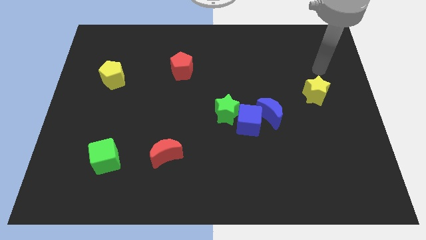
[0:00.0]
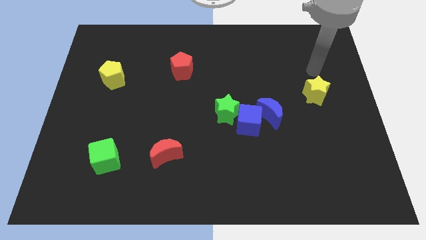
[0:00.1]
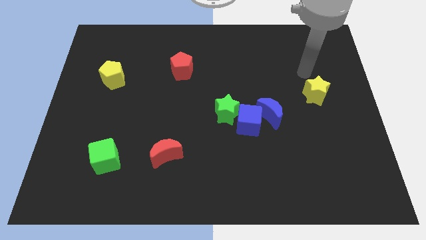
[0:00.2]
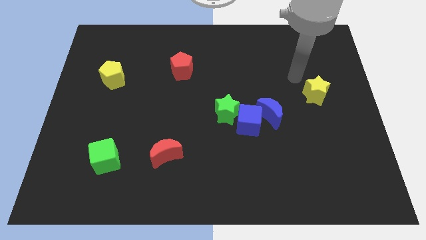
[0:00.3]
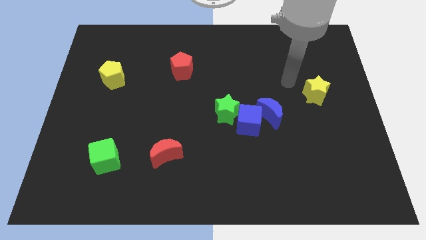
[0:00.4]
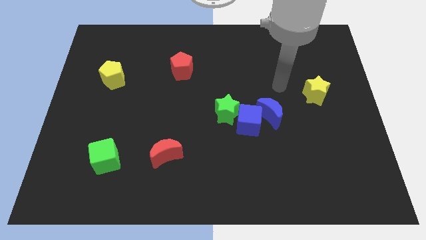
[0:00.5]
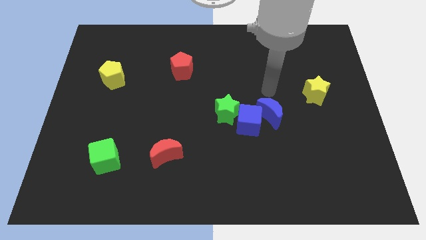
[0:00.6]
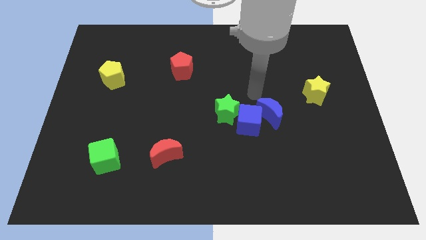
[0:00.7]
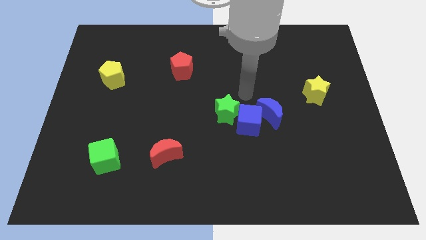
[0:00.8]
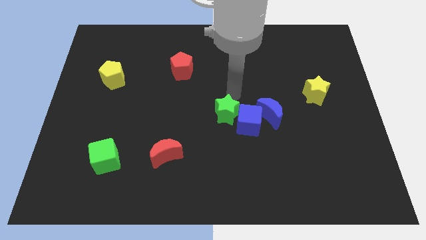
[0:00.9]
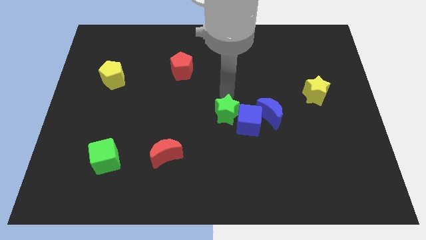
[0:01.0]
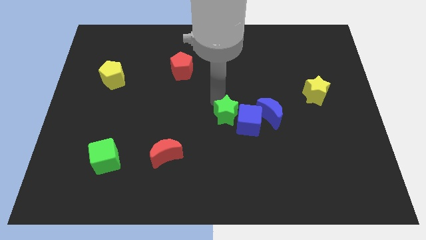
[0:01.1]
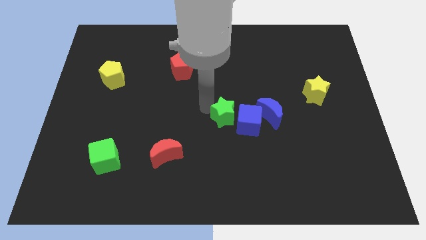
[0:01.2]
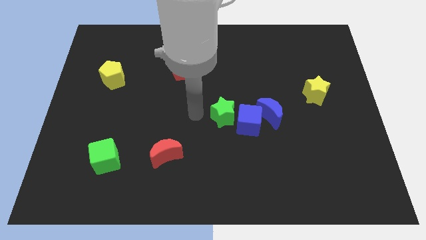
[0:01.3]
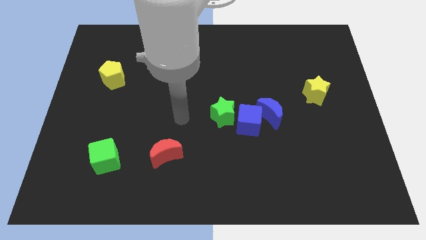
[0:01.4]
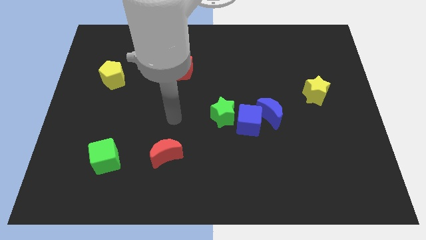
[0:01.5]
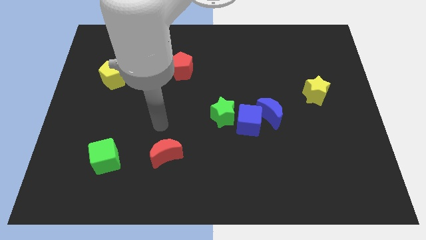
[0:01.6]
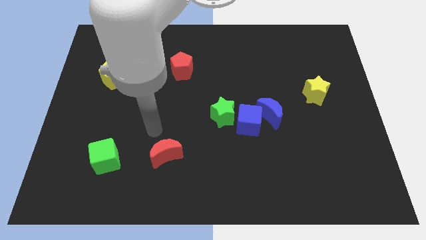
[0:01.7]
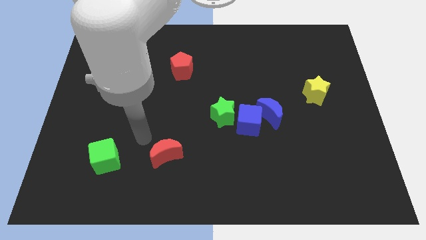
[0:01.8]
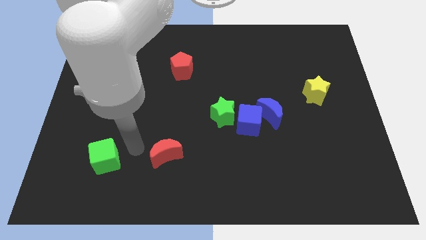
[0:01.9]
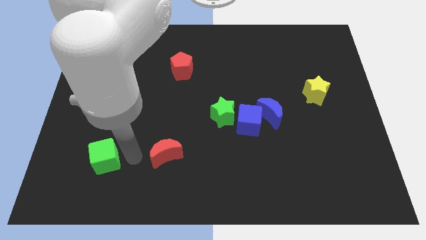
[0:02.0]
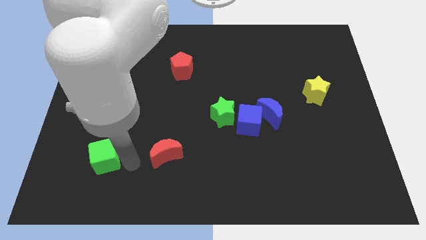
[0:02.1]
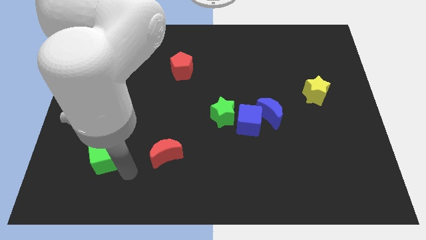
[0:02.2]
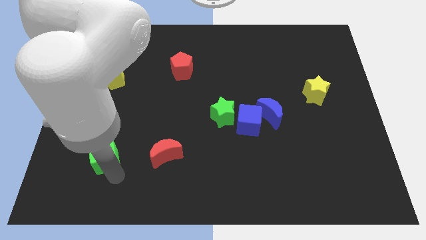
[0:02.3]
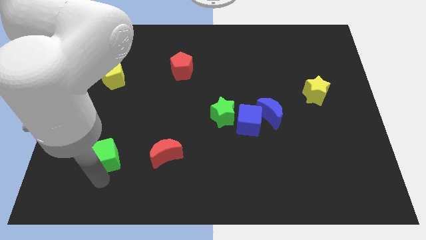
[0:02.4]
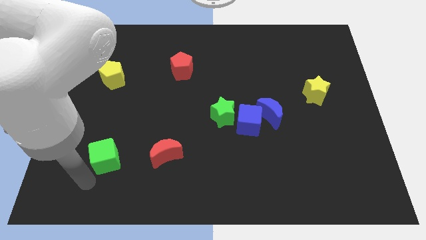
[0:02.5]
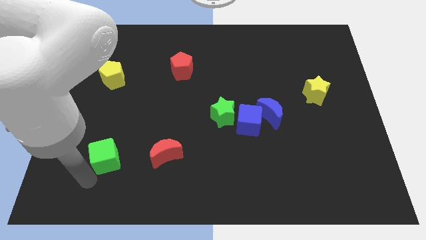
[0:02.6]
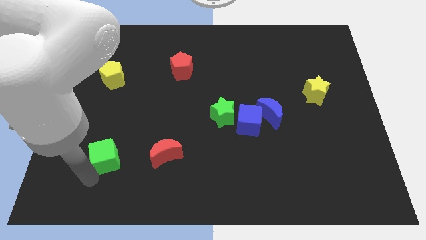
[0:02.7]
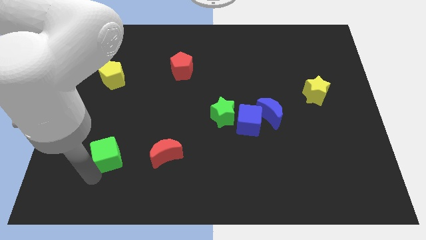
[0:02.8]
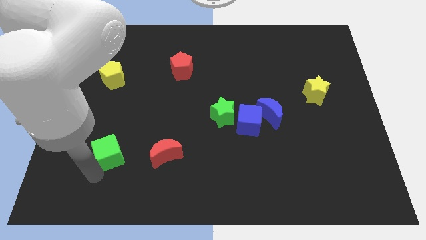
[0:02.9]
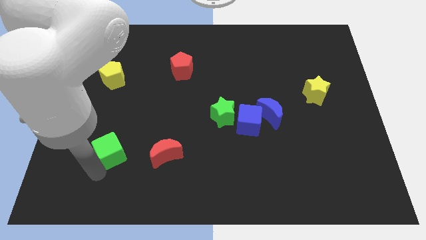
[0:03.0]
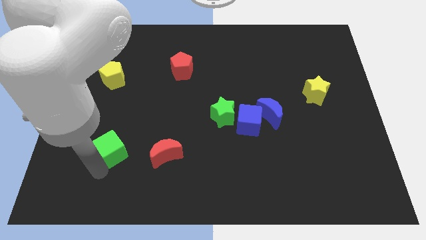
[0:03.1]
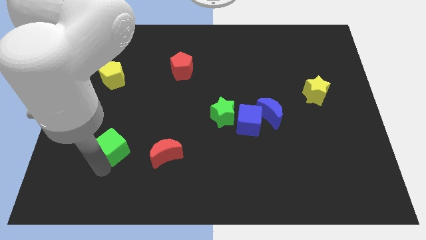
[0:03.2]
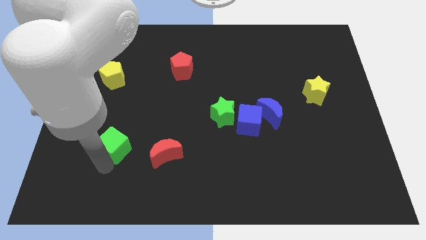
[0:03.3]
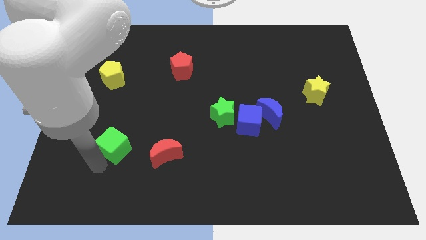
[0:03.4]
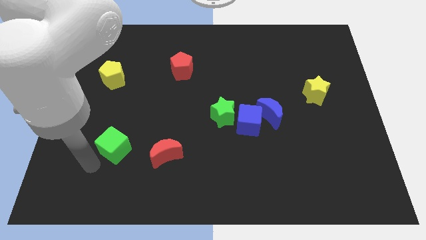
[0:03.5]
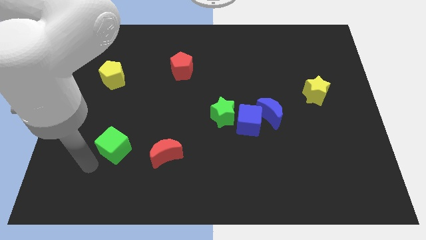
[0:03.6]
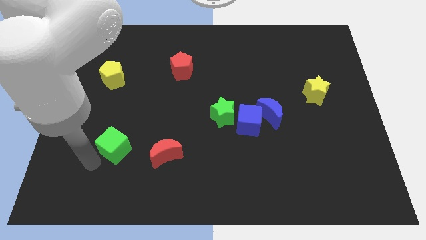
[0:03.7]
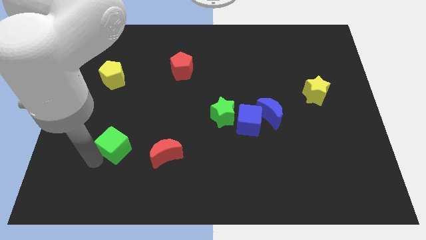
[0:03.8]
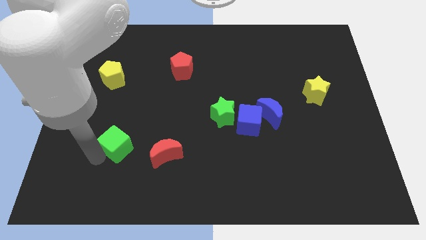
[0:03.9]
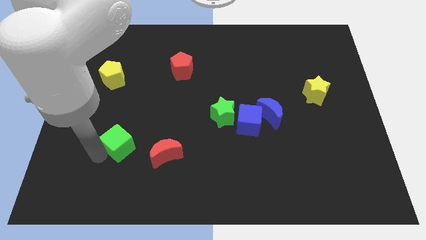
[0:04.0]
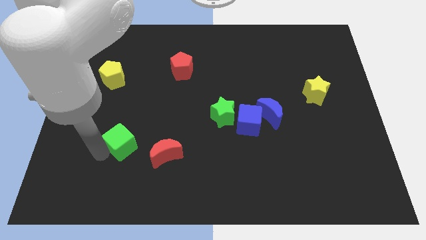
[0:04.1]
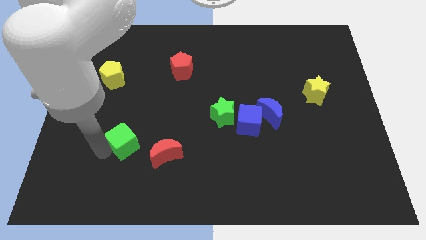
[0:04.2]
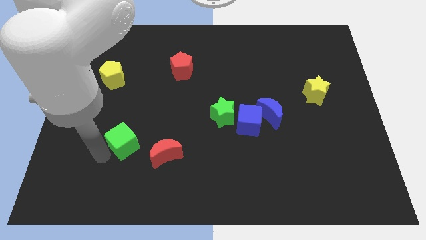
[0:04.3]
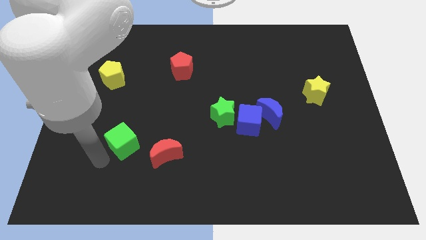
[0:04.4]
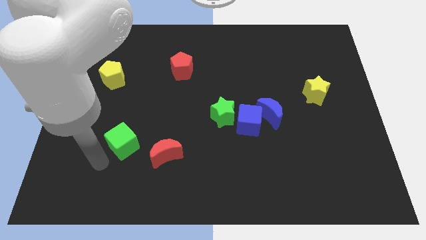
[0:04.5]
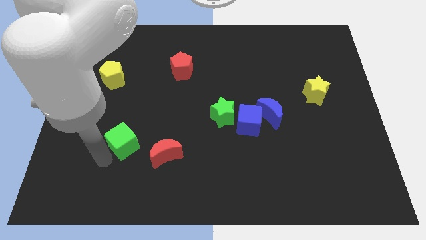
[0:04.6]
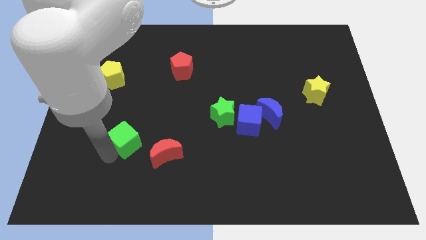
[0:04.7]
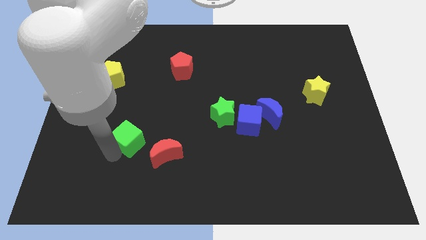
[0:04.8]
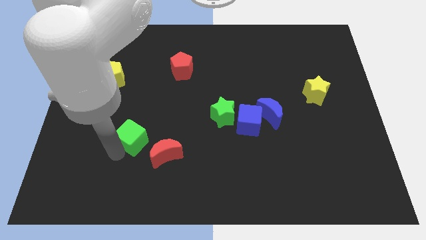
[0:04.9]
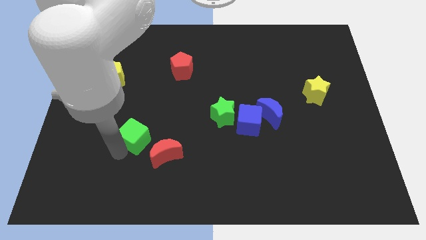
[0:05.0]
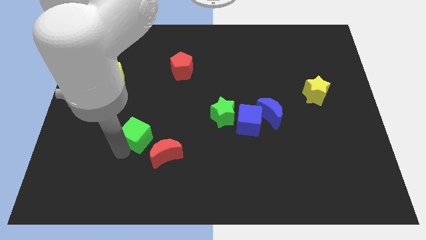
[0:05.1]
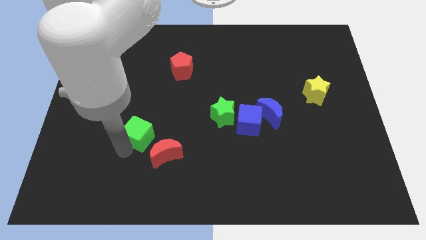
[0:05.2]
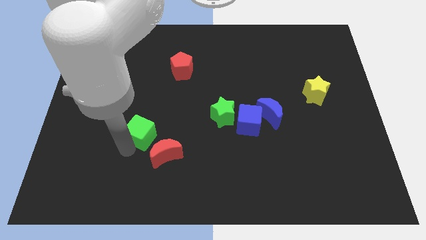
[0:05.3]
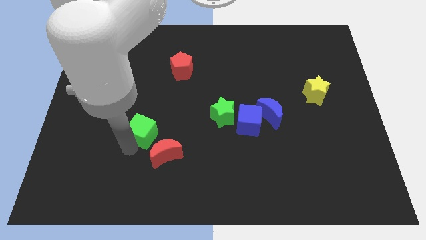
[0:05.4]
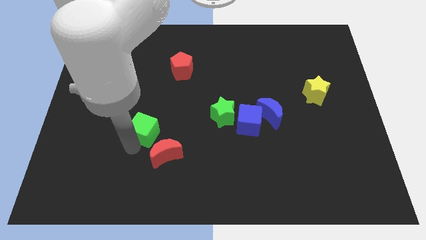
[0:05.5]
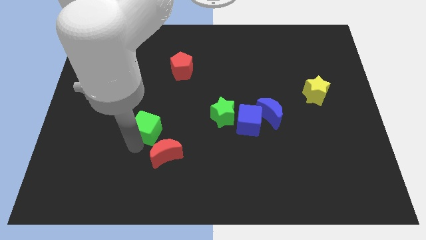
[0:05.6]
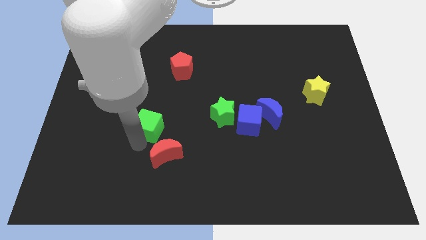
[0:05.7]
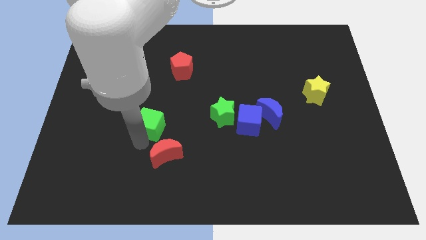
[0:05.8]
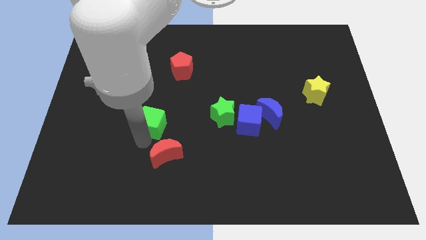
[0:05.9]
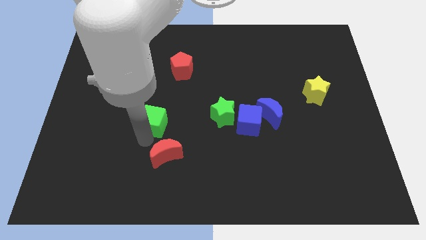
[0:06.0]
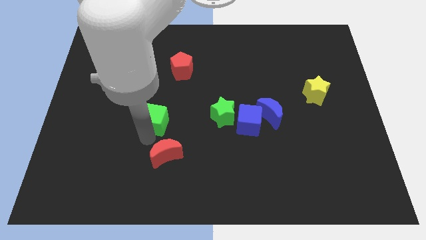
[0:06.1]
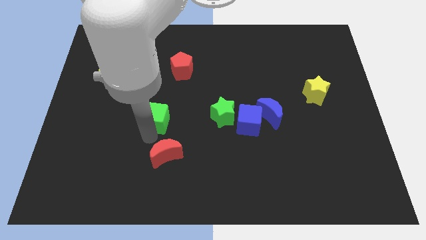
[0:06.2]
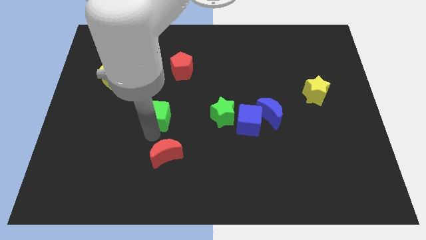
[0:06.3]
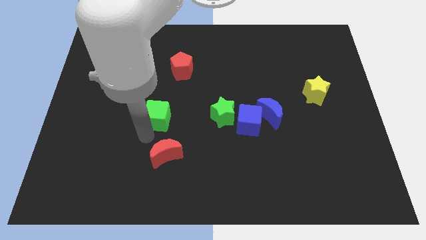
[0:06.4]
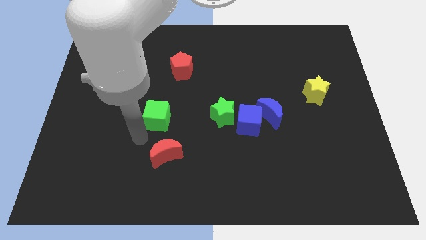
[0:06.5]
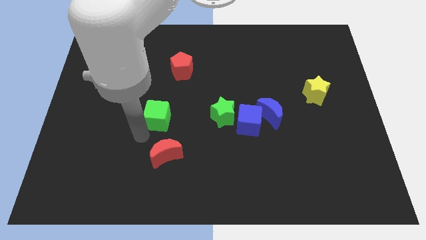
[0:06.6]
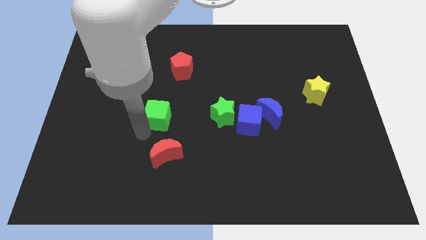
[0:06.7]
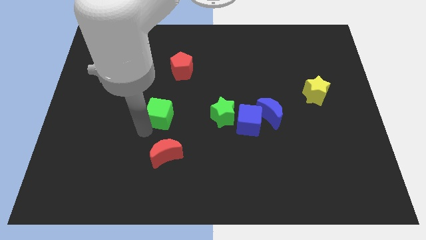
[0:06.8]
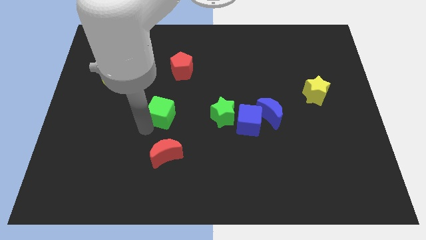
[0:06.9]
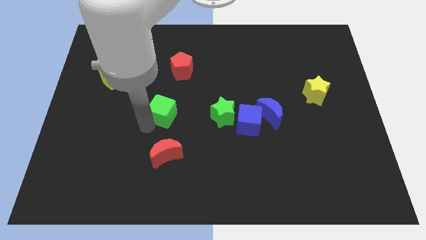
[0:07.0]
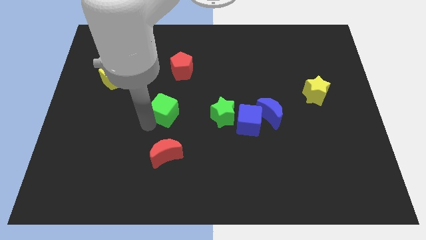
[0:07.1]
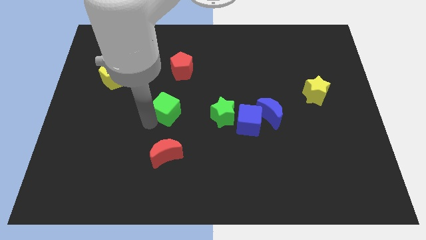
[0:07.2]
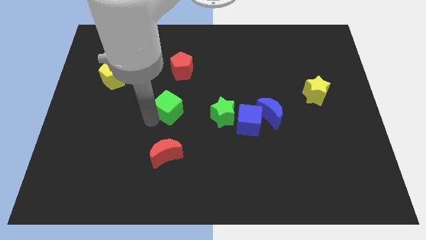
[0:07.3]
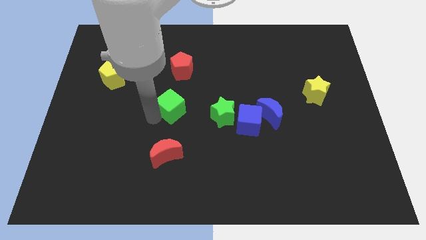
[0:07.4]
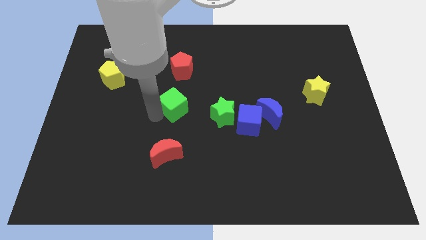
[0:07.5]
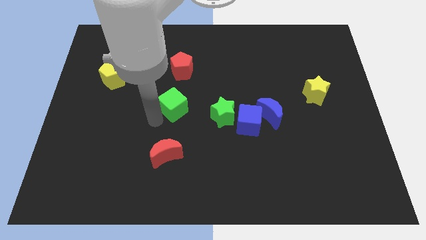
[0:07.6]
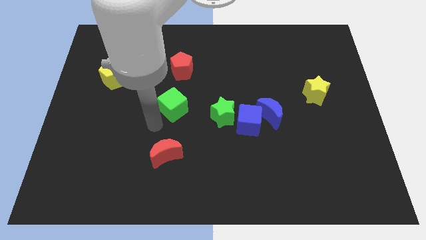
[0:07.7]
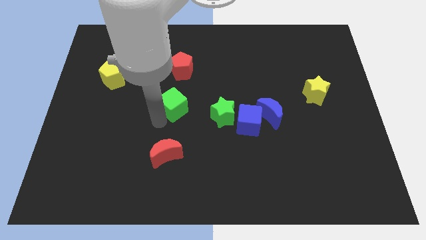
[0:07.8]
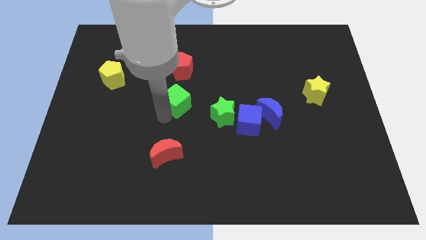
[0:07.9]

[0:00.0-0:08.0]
slide the green cube upwards and right diagonally

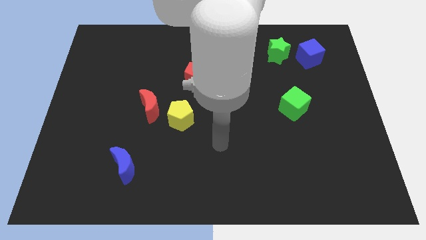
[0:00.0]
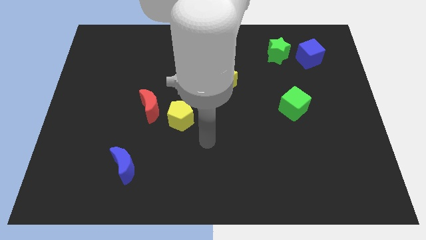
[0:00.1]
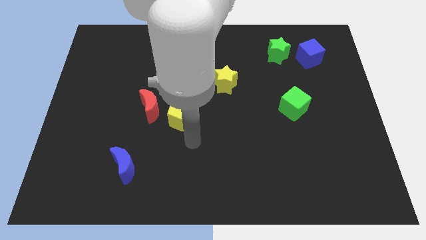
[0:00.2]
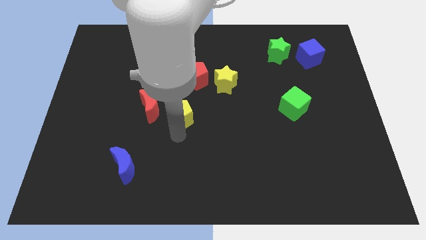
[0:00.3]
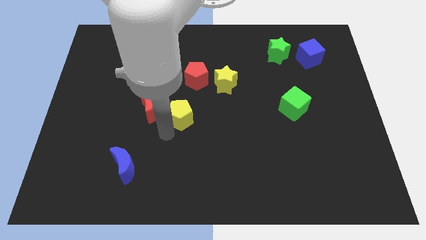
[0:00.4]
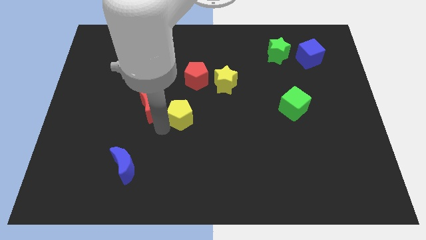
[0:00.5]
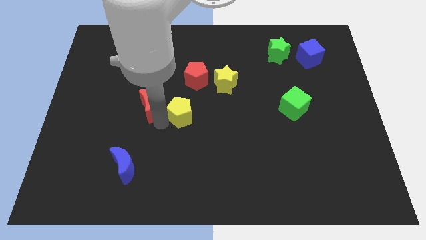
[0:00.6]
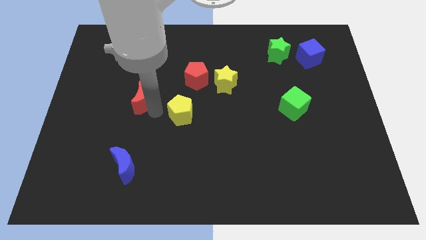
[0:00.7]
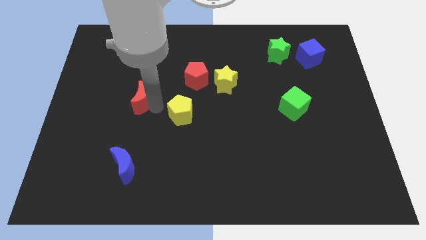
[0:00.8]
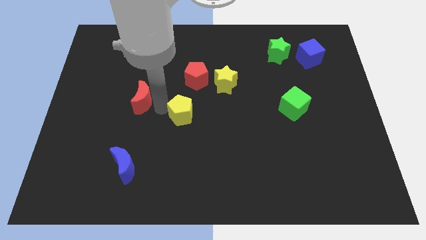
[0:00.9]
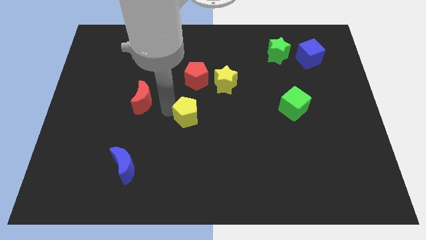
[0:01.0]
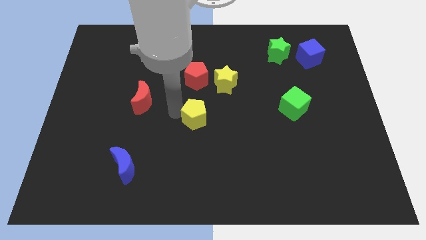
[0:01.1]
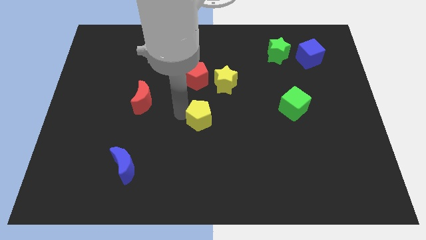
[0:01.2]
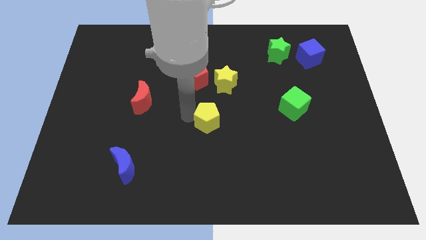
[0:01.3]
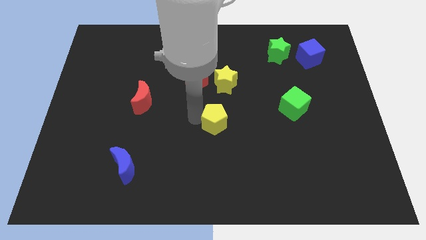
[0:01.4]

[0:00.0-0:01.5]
move the yellow pentagon right a little bit
